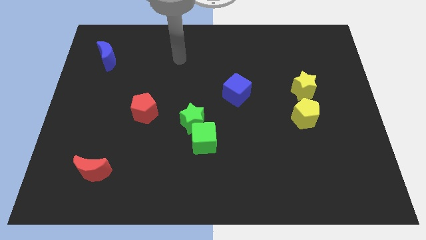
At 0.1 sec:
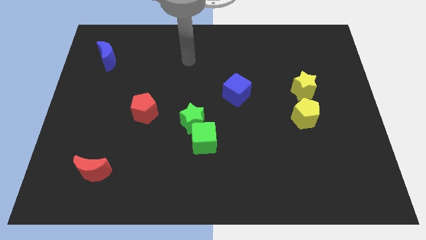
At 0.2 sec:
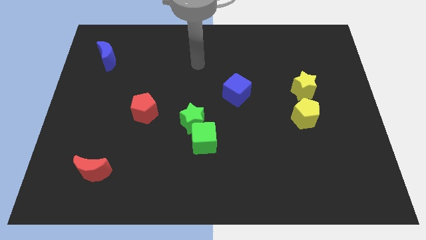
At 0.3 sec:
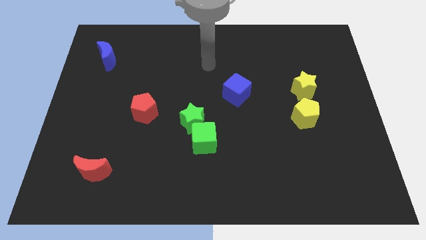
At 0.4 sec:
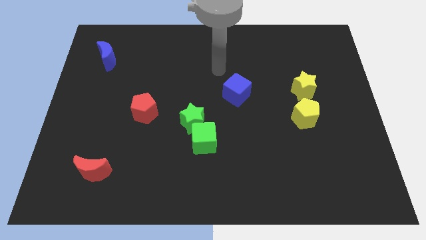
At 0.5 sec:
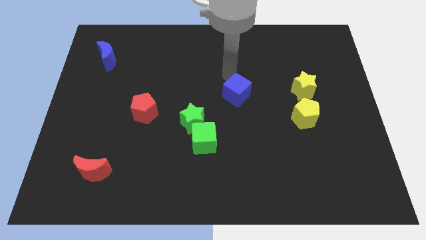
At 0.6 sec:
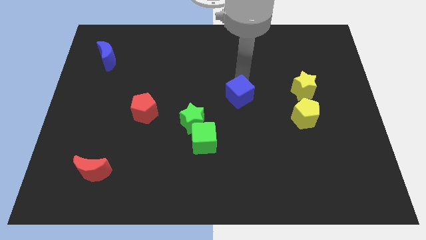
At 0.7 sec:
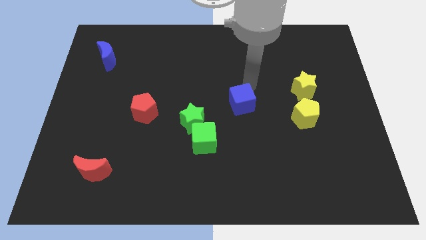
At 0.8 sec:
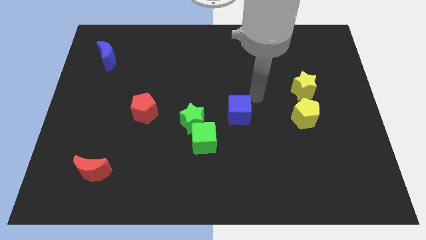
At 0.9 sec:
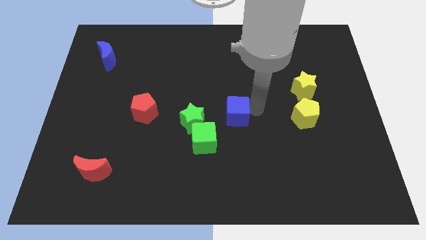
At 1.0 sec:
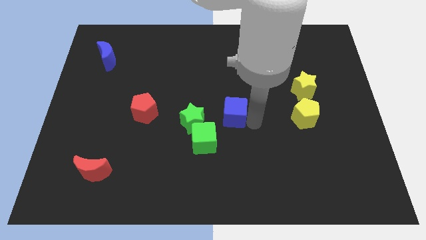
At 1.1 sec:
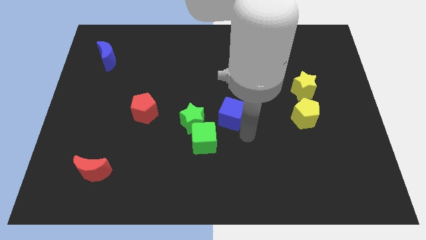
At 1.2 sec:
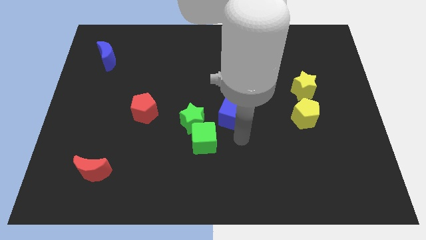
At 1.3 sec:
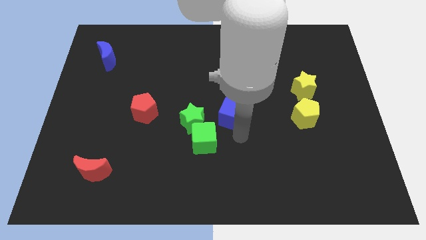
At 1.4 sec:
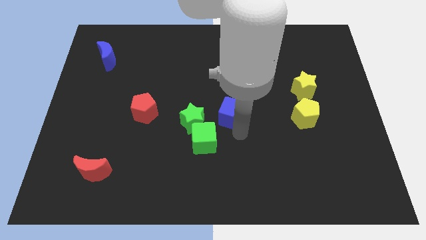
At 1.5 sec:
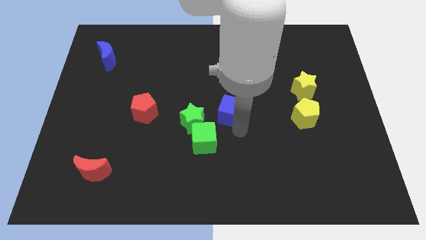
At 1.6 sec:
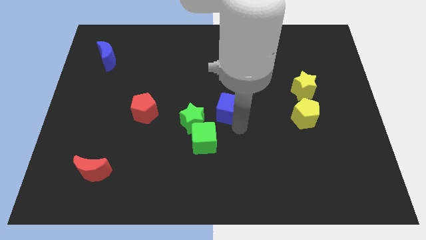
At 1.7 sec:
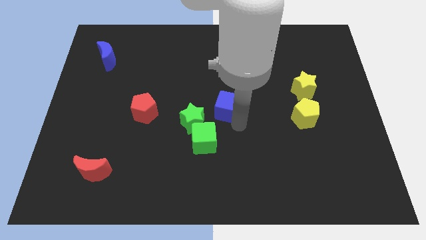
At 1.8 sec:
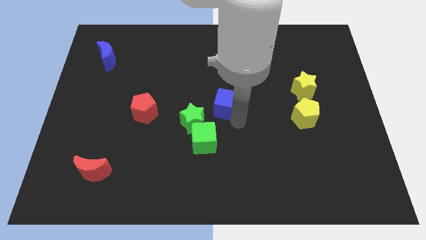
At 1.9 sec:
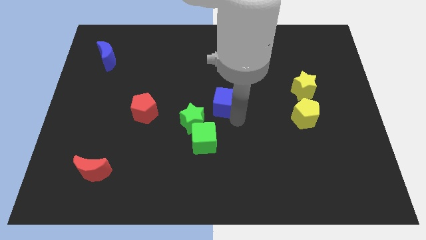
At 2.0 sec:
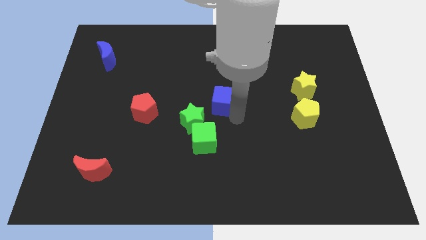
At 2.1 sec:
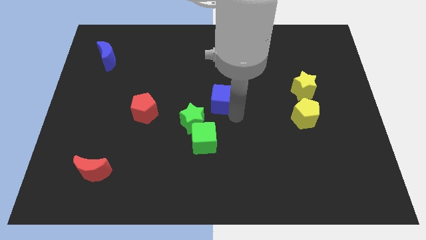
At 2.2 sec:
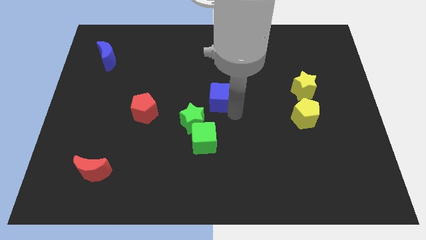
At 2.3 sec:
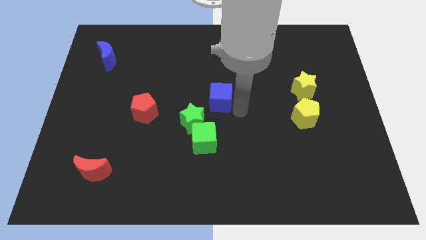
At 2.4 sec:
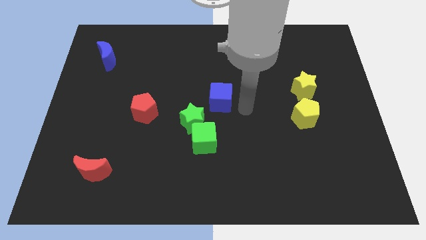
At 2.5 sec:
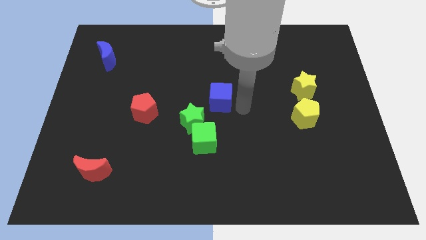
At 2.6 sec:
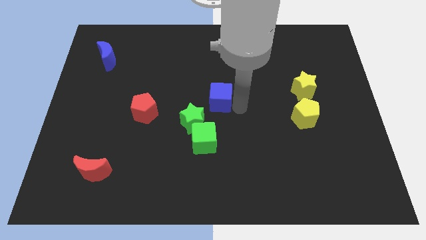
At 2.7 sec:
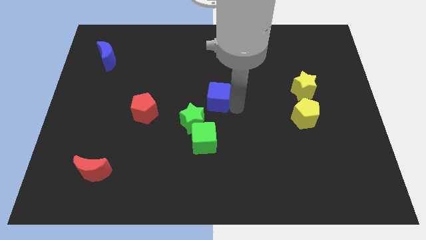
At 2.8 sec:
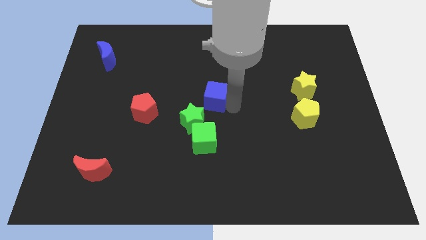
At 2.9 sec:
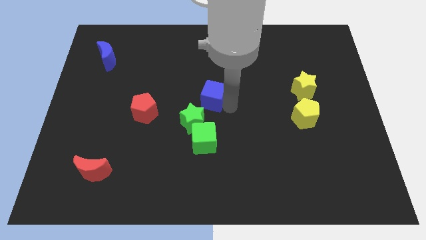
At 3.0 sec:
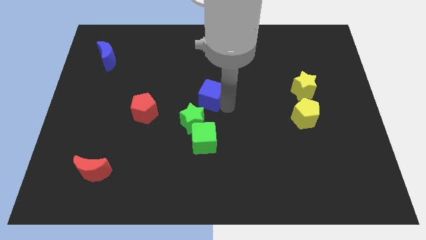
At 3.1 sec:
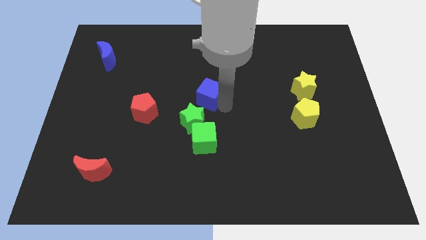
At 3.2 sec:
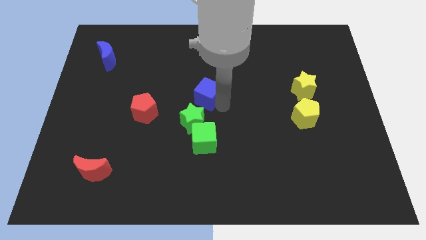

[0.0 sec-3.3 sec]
push the blue cube left a little bit

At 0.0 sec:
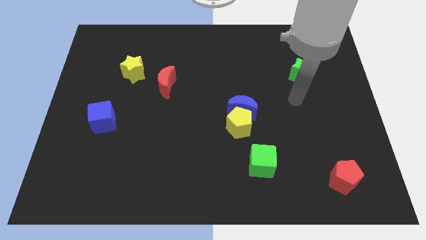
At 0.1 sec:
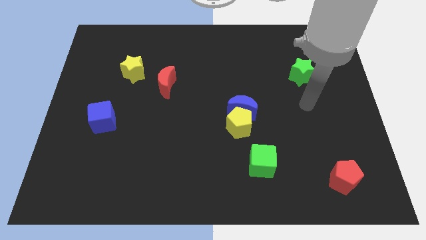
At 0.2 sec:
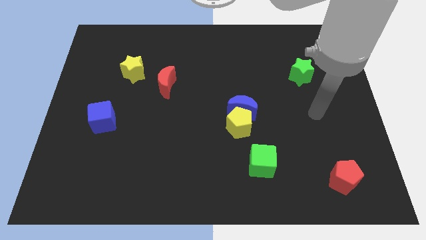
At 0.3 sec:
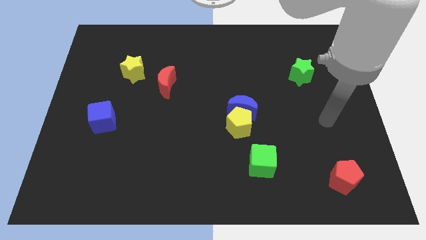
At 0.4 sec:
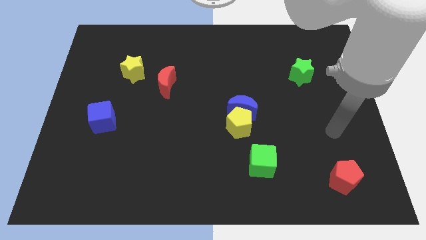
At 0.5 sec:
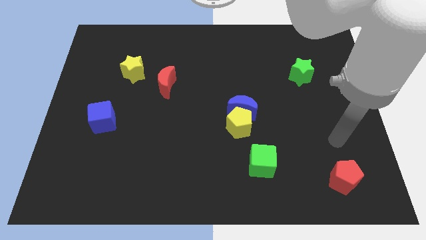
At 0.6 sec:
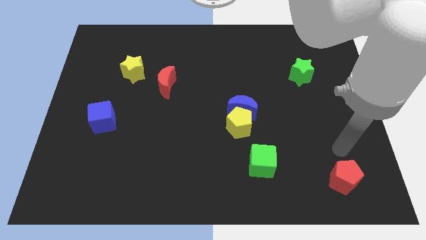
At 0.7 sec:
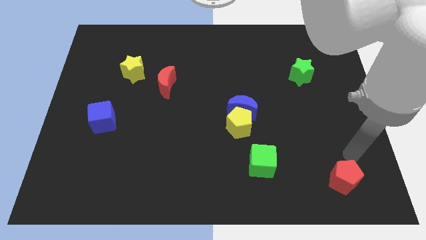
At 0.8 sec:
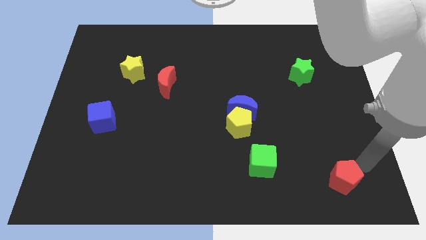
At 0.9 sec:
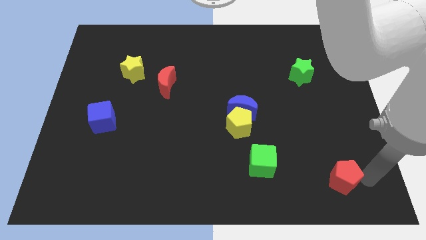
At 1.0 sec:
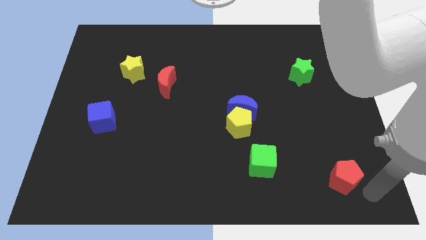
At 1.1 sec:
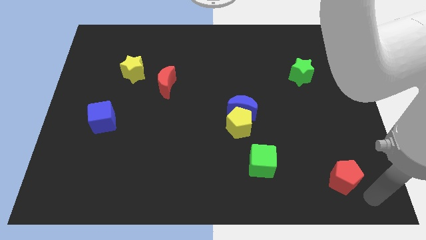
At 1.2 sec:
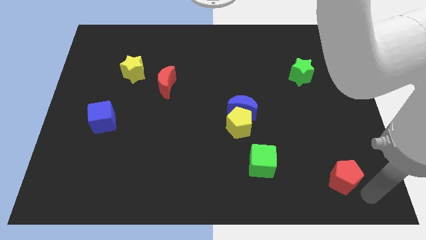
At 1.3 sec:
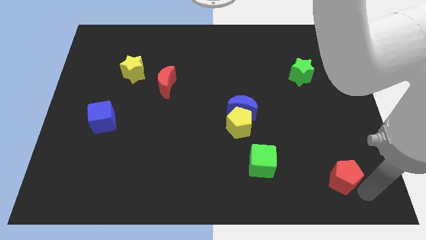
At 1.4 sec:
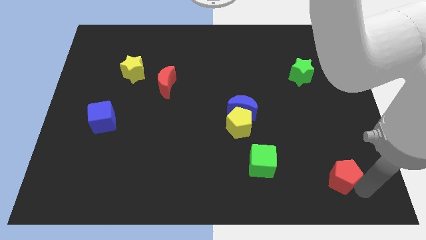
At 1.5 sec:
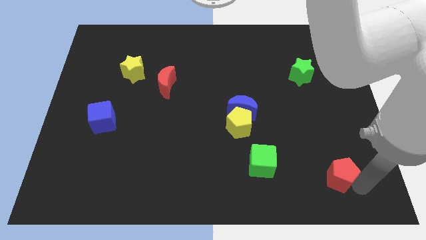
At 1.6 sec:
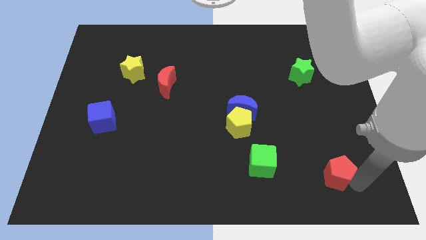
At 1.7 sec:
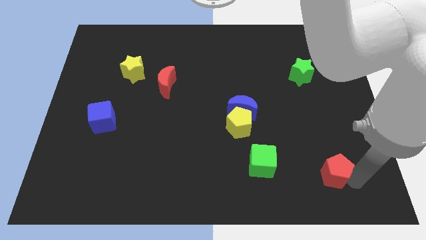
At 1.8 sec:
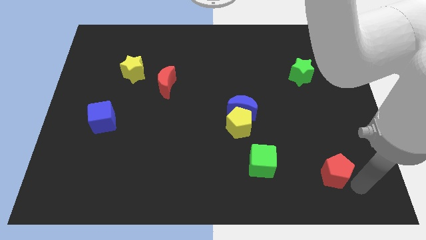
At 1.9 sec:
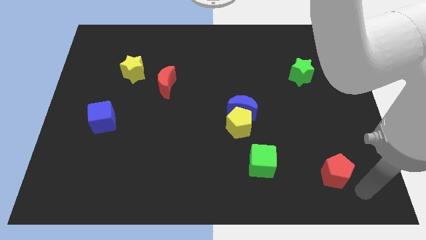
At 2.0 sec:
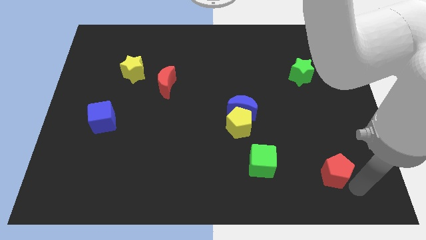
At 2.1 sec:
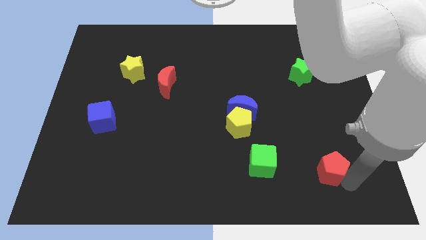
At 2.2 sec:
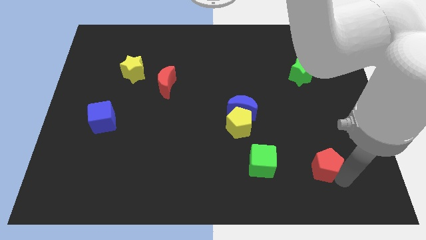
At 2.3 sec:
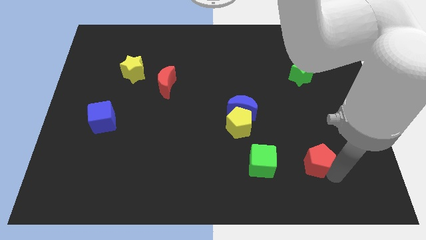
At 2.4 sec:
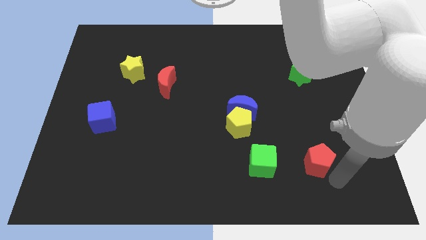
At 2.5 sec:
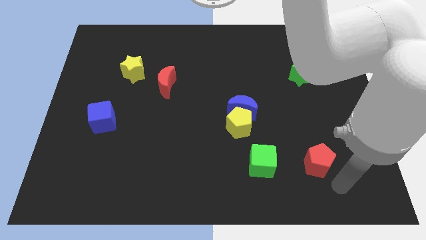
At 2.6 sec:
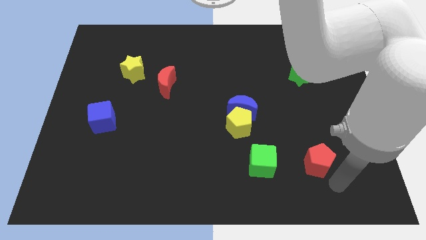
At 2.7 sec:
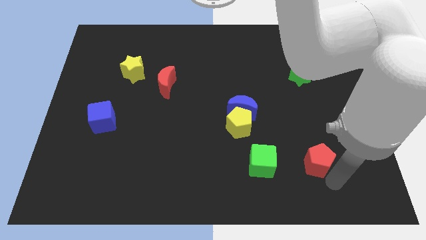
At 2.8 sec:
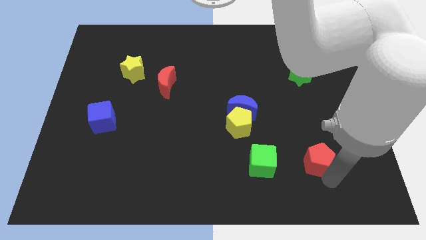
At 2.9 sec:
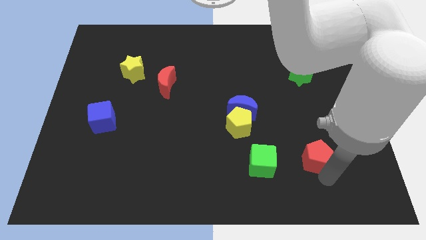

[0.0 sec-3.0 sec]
push the red pentagon up and then left a little

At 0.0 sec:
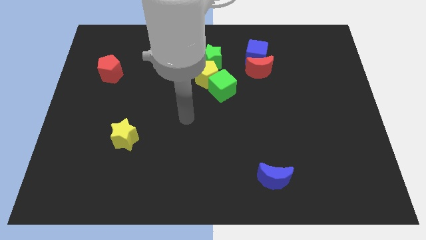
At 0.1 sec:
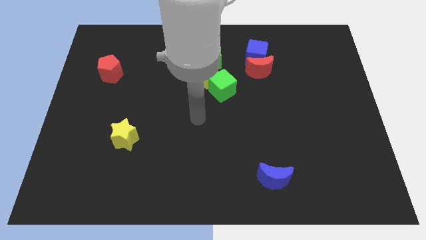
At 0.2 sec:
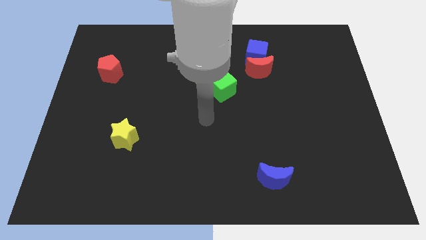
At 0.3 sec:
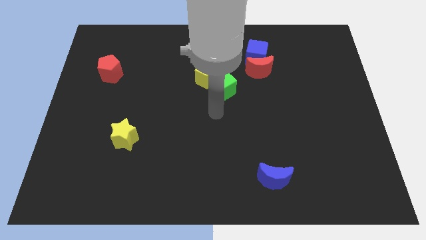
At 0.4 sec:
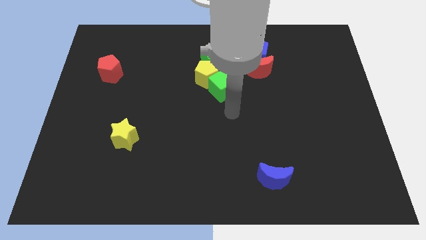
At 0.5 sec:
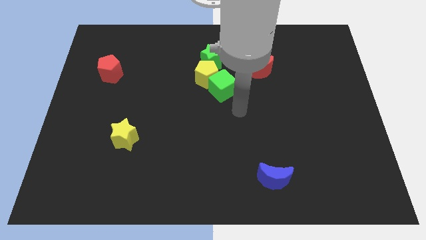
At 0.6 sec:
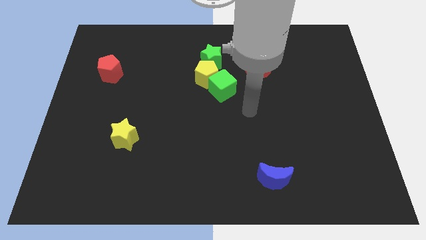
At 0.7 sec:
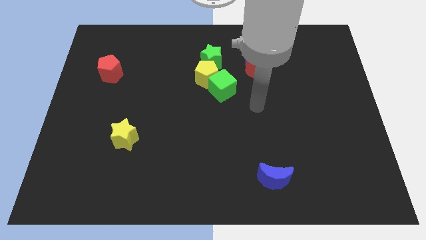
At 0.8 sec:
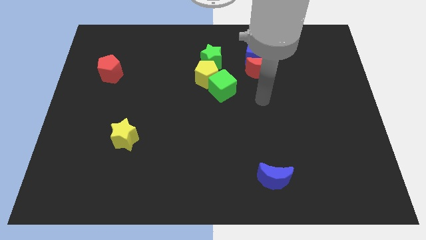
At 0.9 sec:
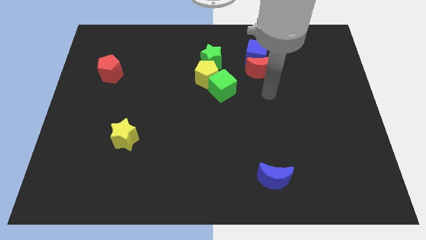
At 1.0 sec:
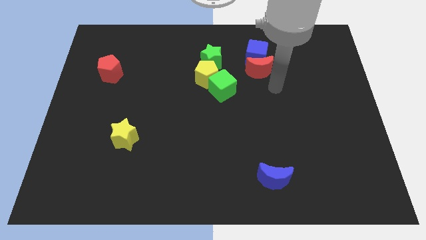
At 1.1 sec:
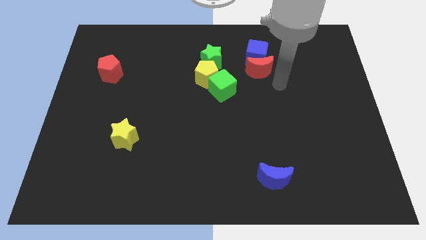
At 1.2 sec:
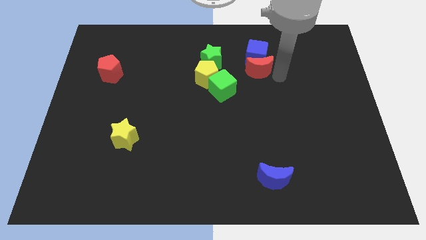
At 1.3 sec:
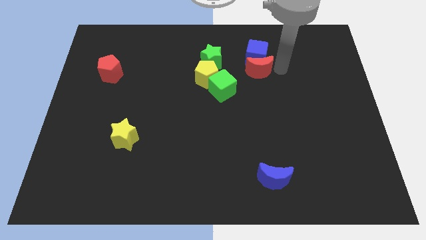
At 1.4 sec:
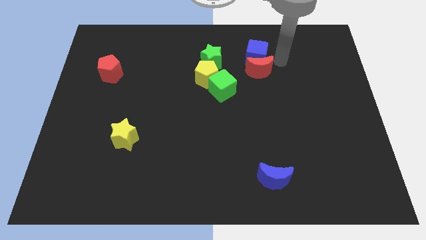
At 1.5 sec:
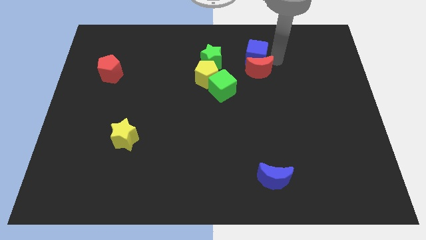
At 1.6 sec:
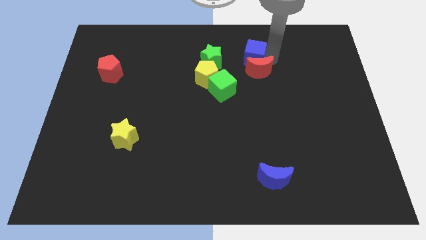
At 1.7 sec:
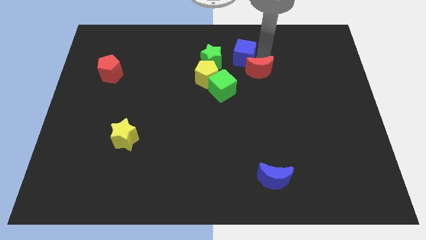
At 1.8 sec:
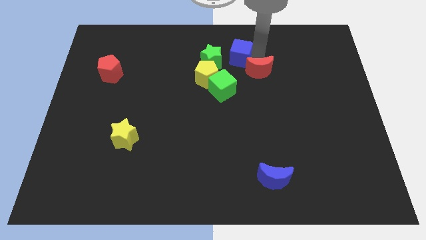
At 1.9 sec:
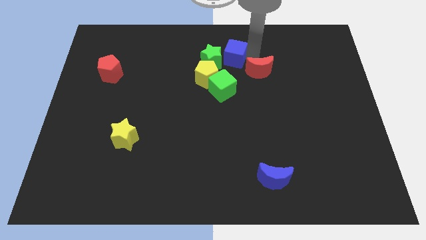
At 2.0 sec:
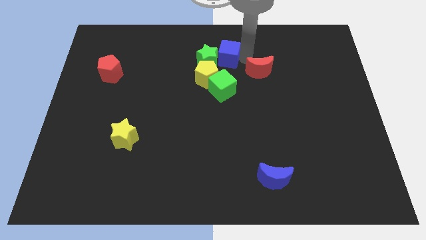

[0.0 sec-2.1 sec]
slightly slide the blue cube left

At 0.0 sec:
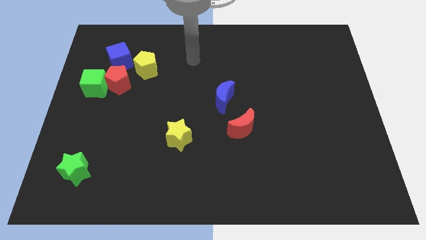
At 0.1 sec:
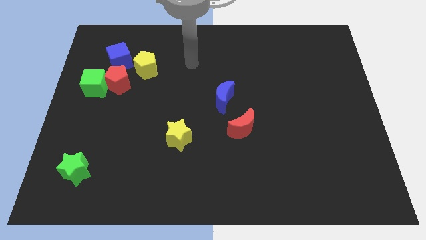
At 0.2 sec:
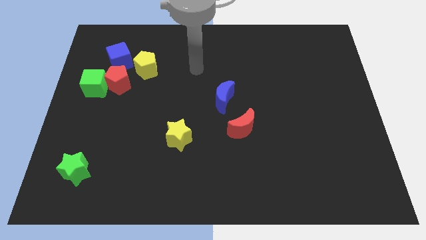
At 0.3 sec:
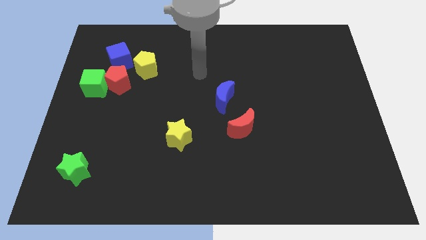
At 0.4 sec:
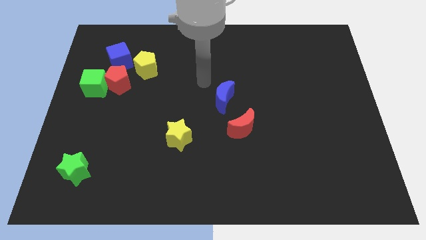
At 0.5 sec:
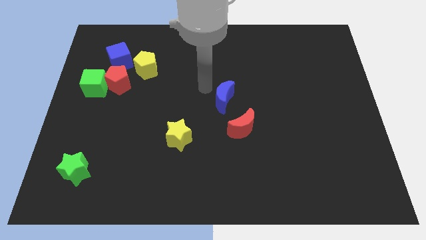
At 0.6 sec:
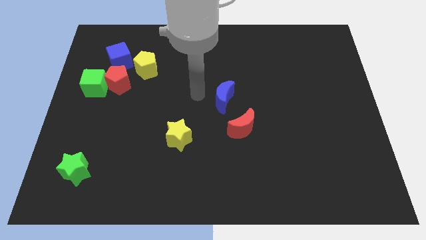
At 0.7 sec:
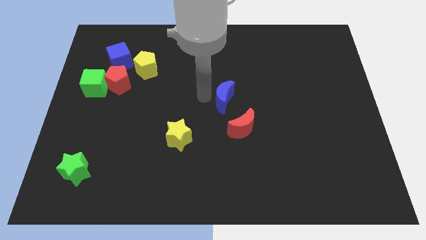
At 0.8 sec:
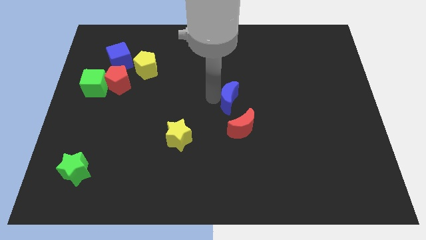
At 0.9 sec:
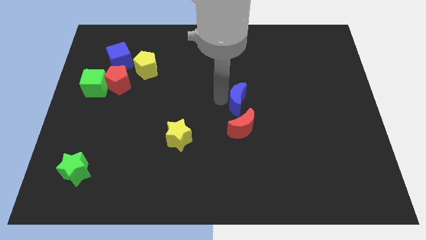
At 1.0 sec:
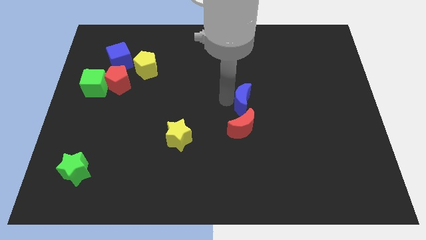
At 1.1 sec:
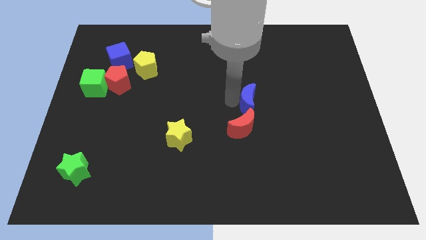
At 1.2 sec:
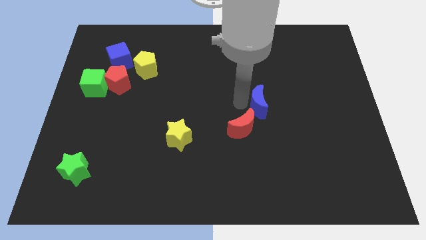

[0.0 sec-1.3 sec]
push the blue moon right a little
